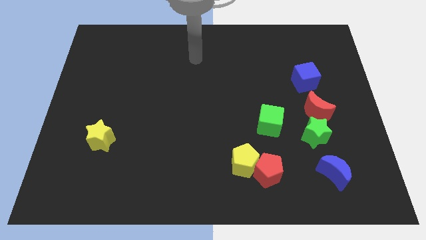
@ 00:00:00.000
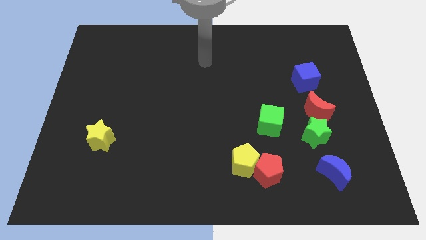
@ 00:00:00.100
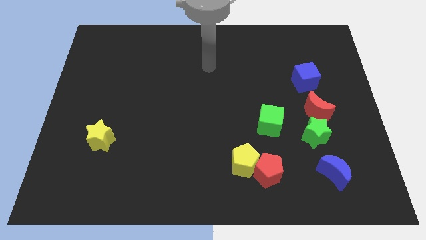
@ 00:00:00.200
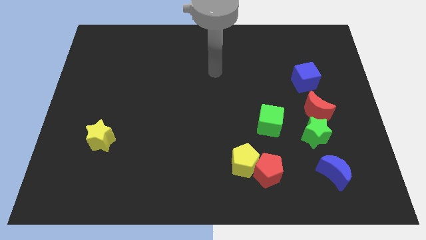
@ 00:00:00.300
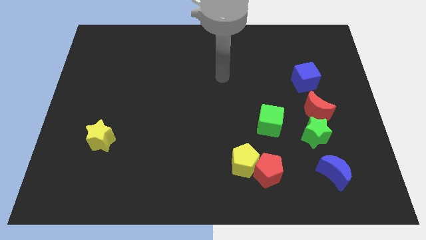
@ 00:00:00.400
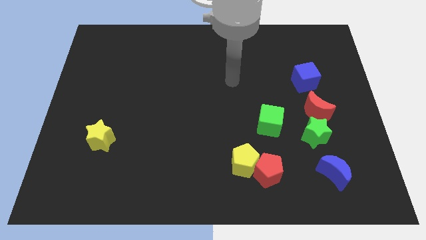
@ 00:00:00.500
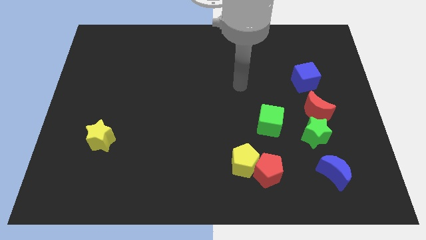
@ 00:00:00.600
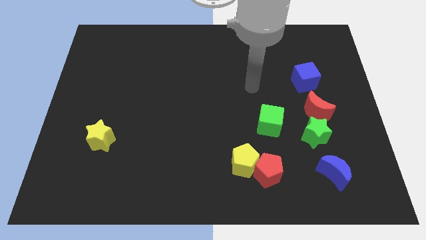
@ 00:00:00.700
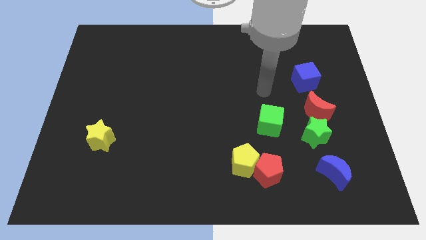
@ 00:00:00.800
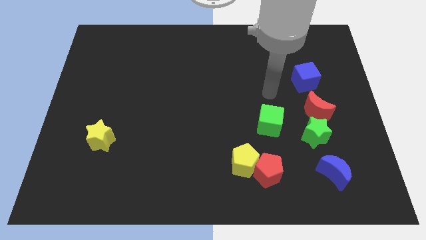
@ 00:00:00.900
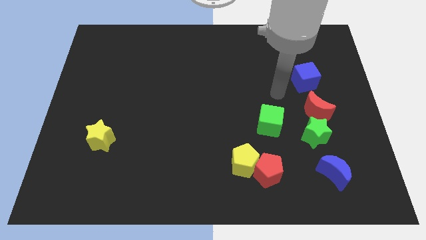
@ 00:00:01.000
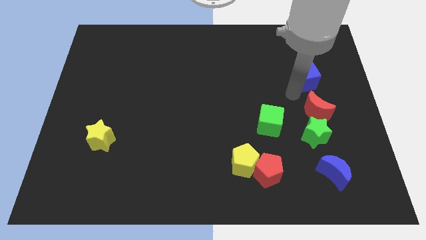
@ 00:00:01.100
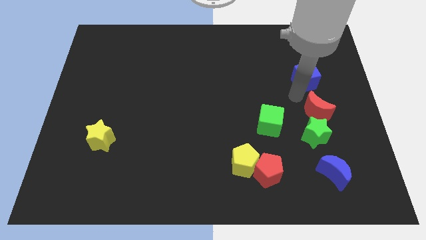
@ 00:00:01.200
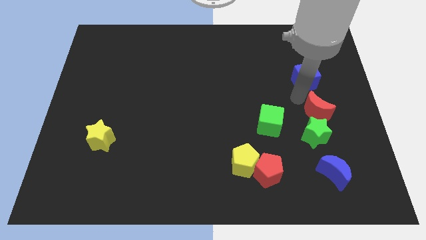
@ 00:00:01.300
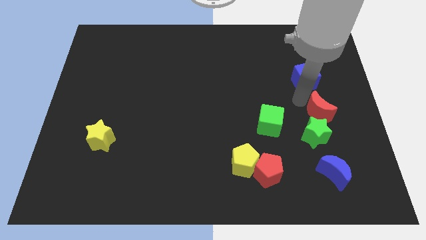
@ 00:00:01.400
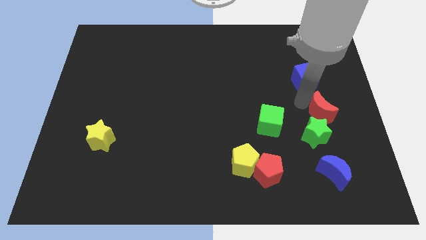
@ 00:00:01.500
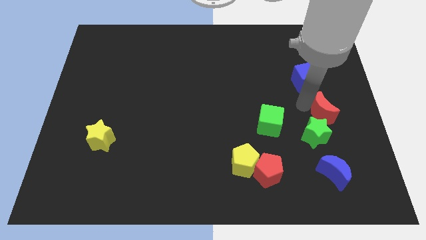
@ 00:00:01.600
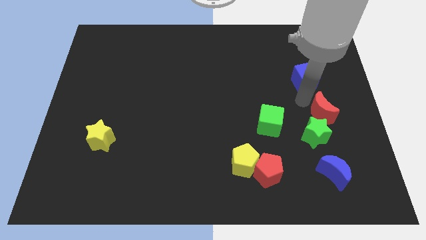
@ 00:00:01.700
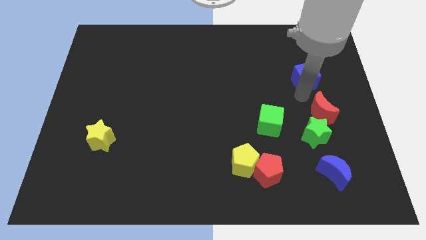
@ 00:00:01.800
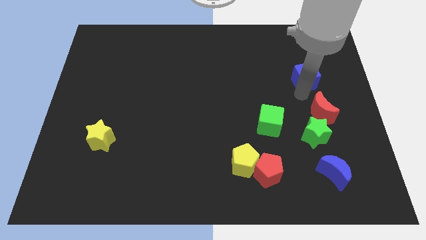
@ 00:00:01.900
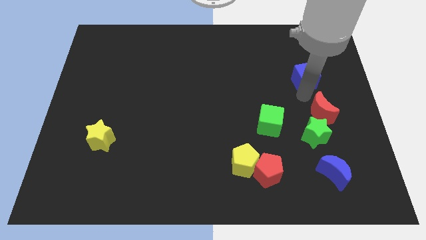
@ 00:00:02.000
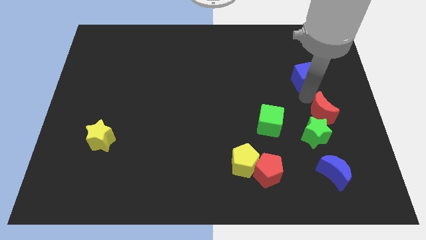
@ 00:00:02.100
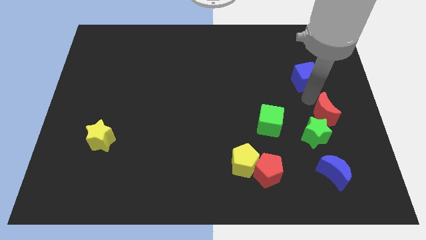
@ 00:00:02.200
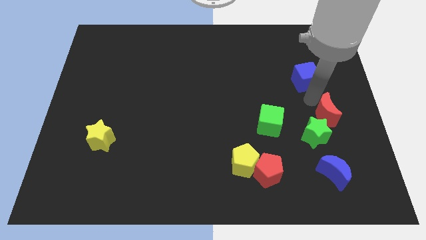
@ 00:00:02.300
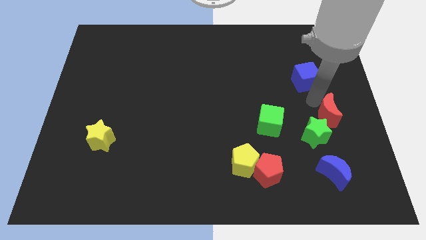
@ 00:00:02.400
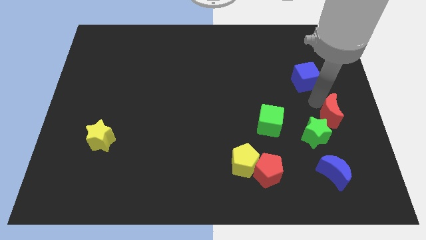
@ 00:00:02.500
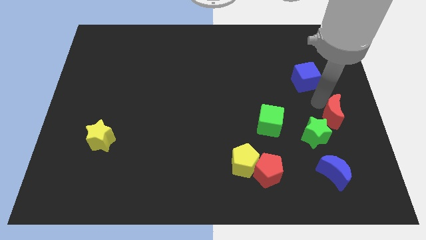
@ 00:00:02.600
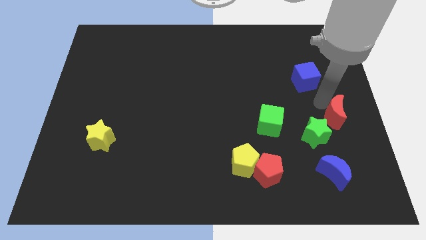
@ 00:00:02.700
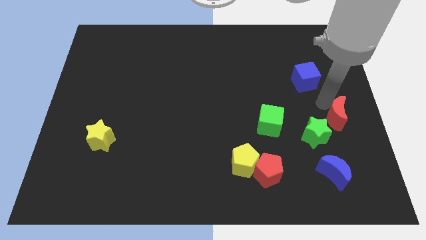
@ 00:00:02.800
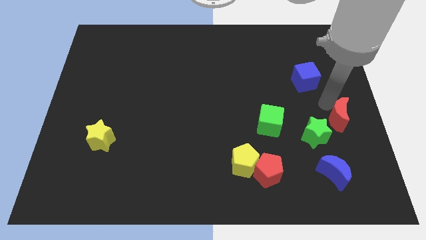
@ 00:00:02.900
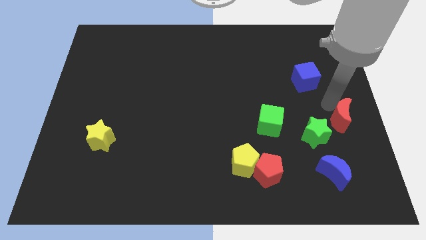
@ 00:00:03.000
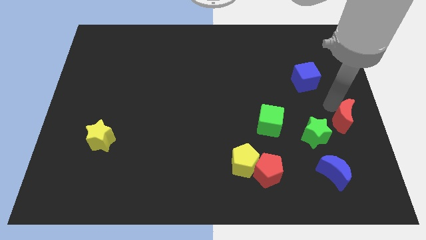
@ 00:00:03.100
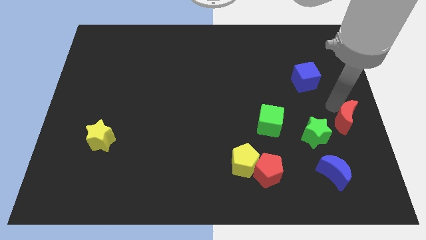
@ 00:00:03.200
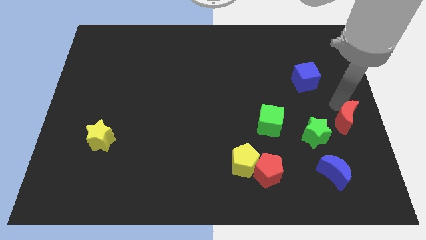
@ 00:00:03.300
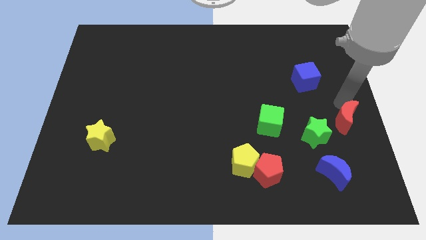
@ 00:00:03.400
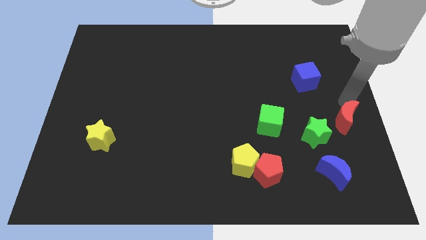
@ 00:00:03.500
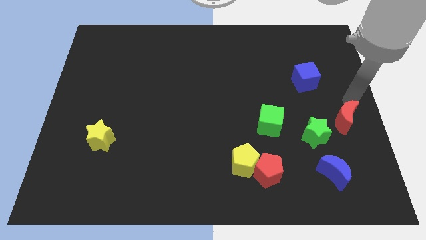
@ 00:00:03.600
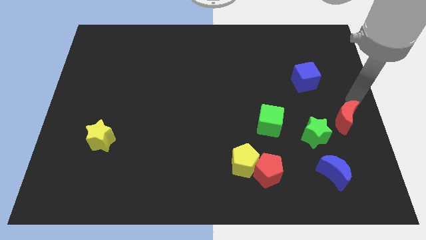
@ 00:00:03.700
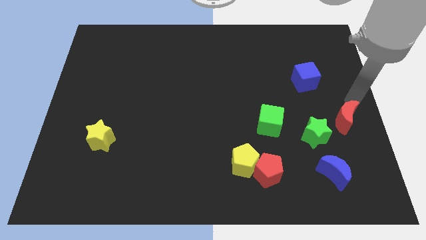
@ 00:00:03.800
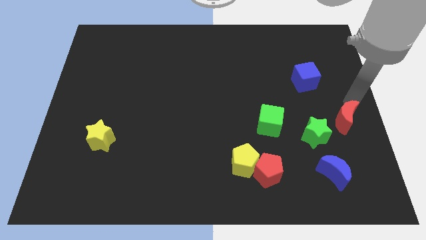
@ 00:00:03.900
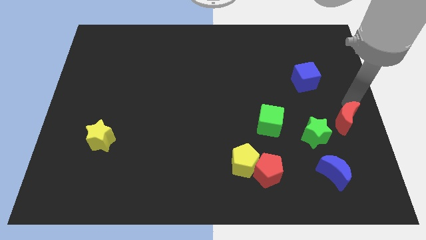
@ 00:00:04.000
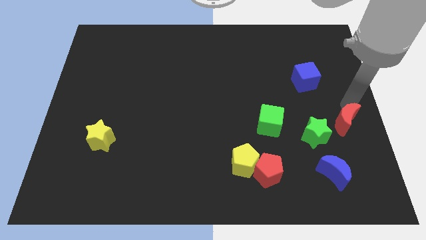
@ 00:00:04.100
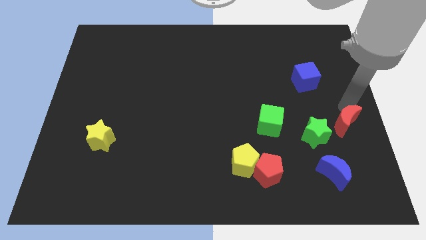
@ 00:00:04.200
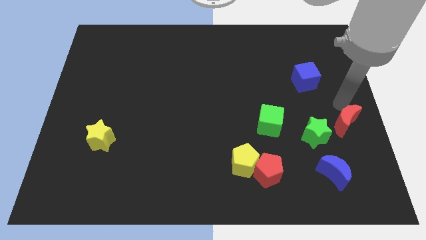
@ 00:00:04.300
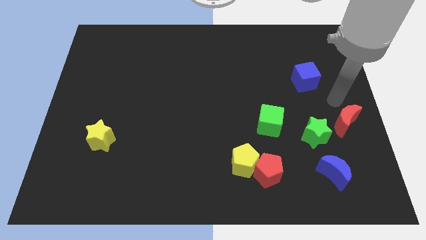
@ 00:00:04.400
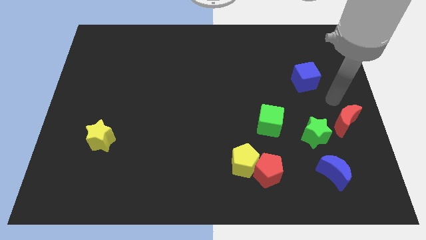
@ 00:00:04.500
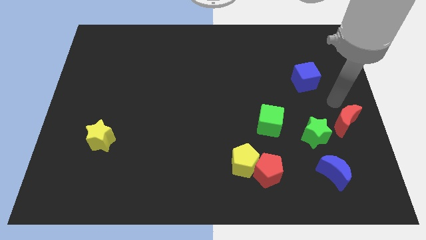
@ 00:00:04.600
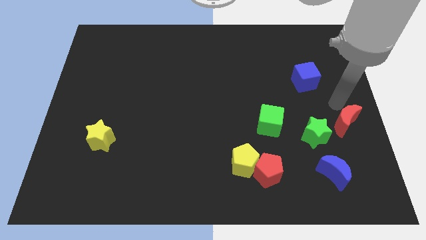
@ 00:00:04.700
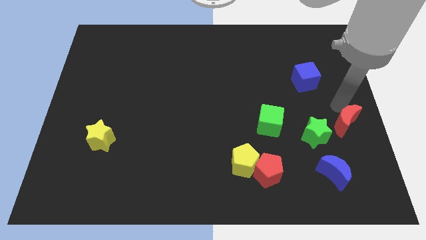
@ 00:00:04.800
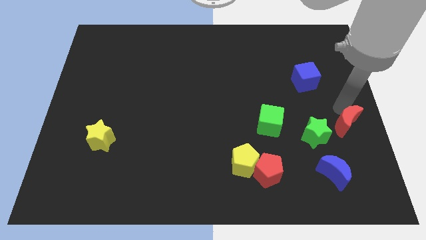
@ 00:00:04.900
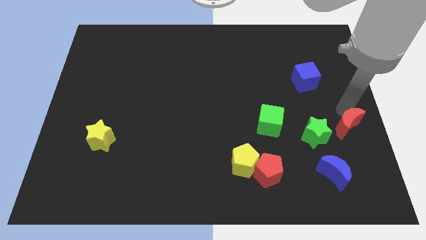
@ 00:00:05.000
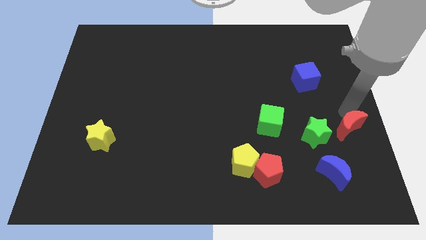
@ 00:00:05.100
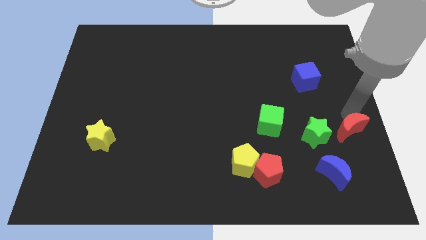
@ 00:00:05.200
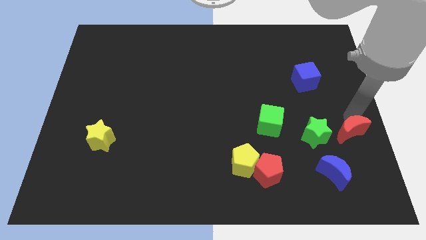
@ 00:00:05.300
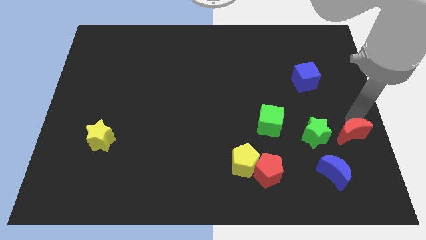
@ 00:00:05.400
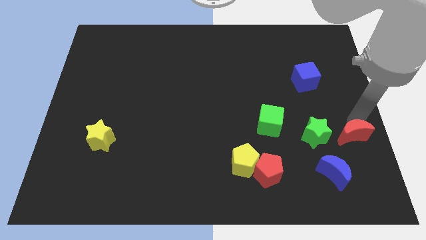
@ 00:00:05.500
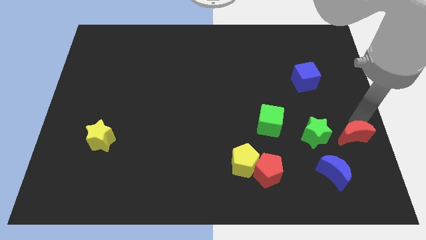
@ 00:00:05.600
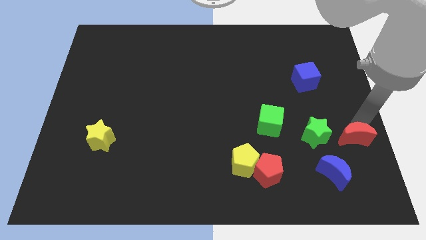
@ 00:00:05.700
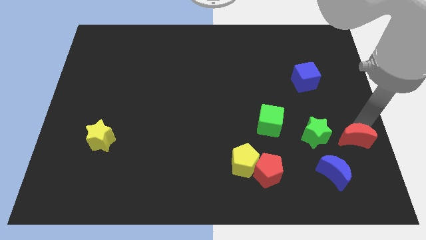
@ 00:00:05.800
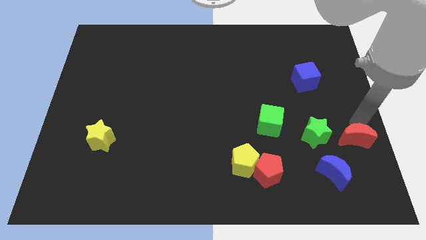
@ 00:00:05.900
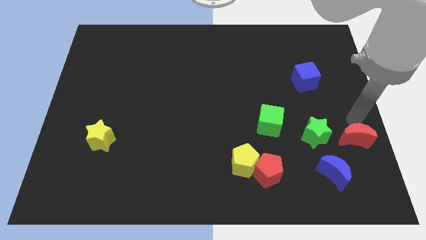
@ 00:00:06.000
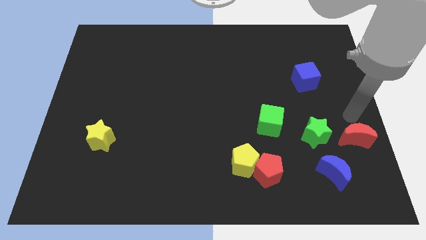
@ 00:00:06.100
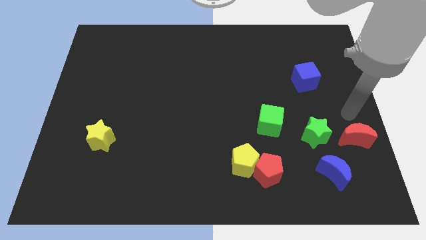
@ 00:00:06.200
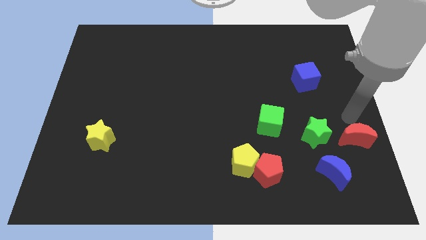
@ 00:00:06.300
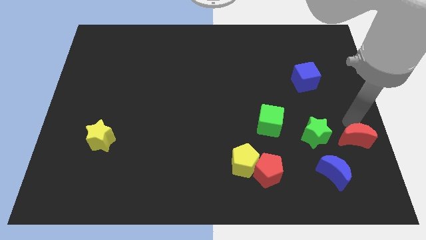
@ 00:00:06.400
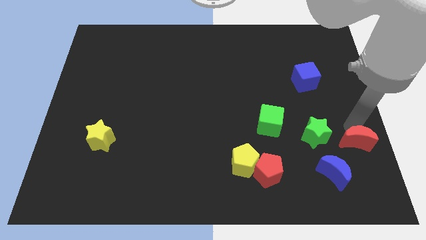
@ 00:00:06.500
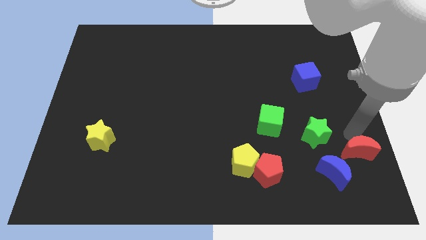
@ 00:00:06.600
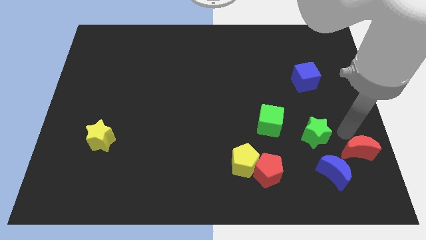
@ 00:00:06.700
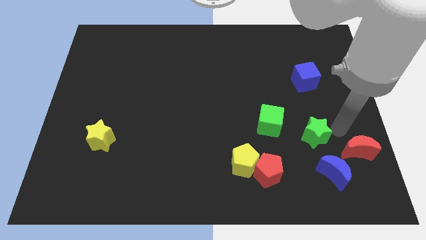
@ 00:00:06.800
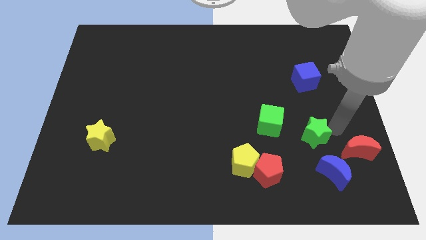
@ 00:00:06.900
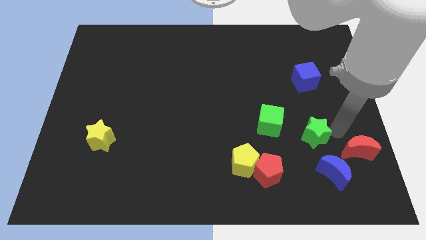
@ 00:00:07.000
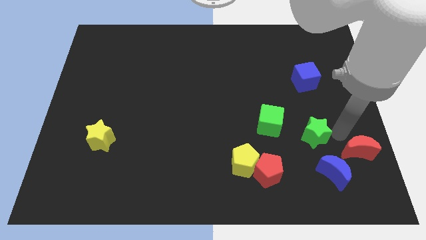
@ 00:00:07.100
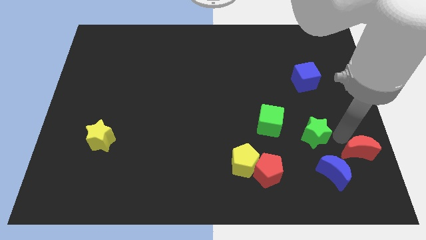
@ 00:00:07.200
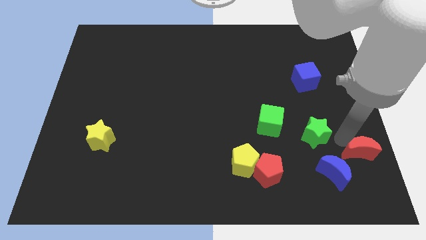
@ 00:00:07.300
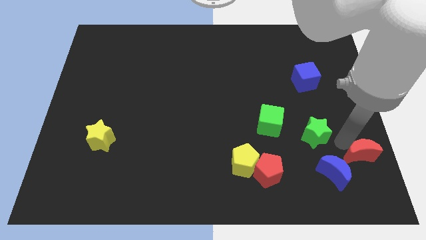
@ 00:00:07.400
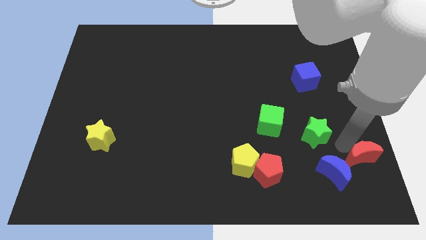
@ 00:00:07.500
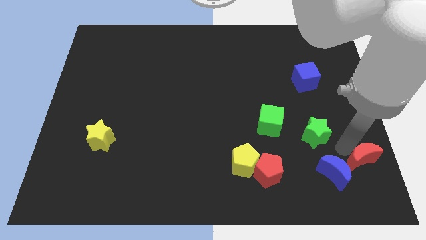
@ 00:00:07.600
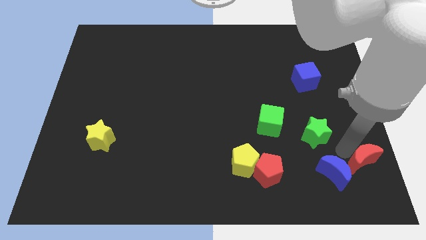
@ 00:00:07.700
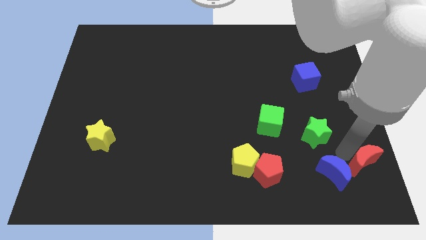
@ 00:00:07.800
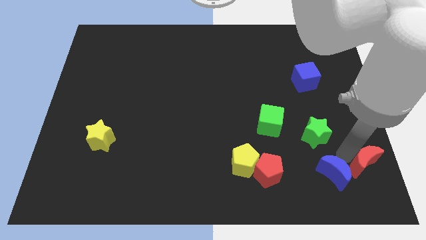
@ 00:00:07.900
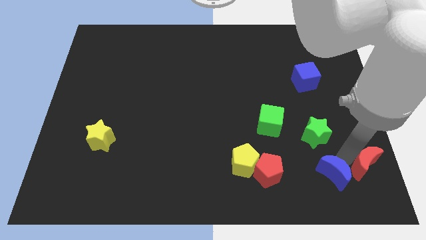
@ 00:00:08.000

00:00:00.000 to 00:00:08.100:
put the red moon to the bottom right
